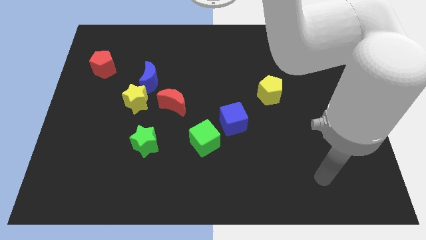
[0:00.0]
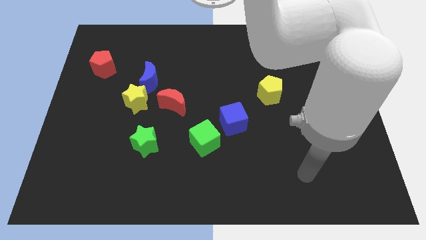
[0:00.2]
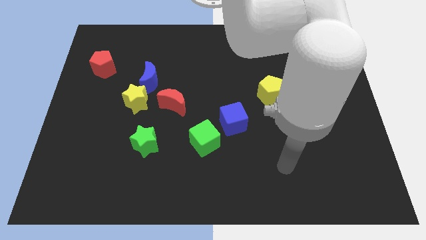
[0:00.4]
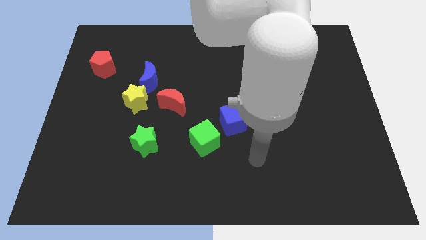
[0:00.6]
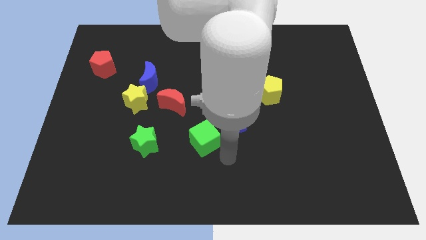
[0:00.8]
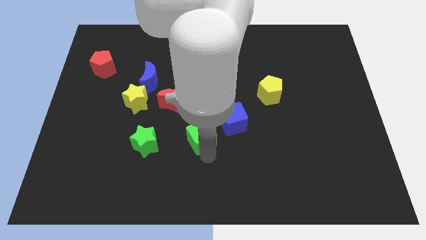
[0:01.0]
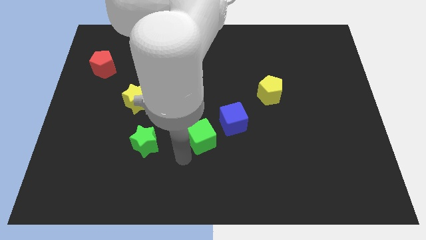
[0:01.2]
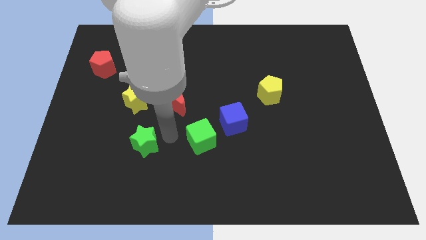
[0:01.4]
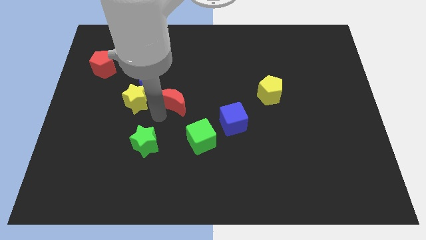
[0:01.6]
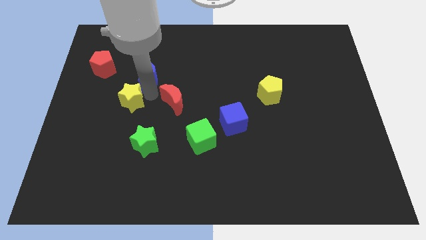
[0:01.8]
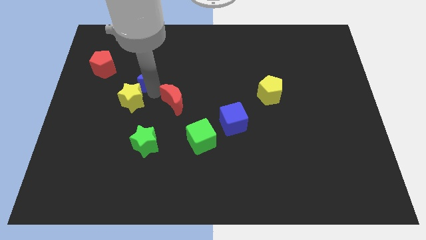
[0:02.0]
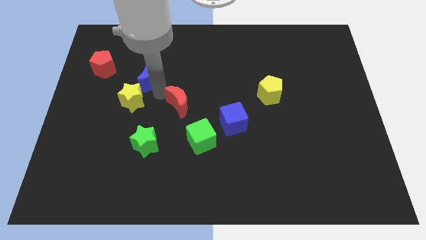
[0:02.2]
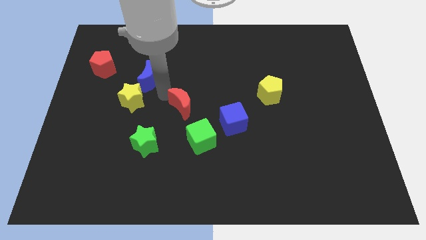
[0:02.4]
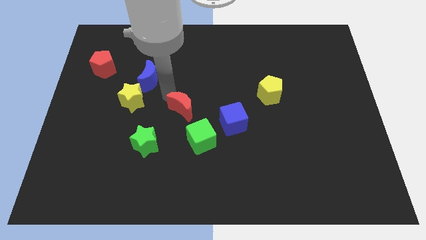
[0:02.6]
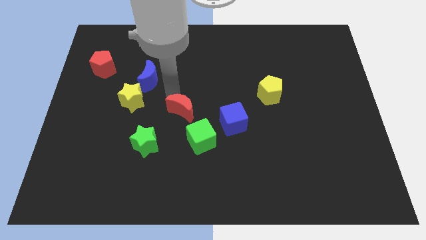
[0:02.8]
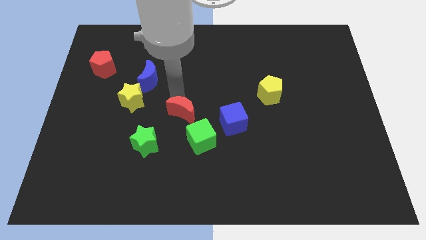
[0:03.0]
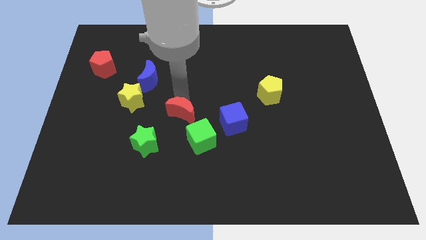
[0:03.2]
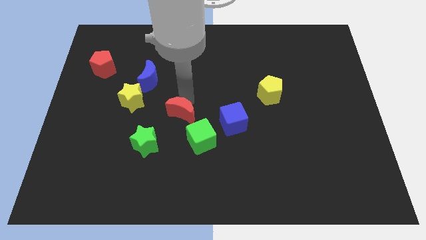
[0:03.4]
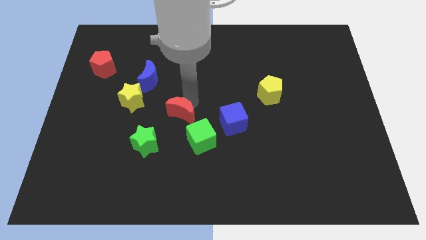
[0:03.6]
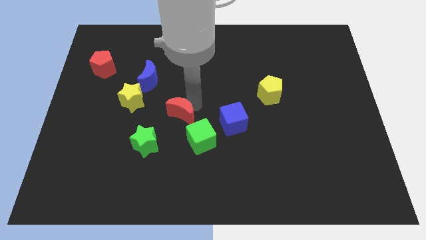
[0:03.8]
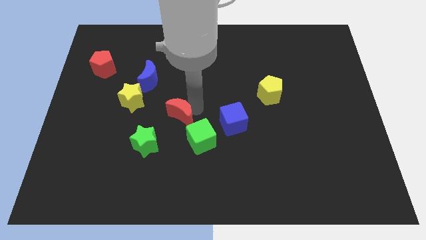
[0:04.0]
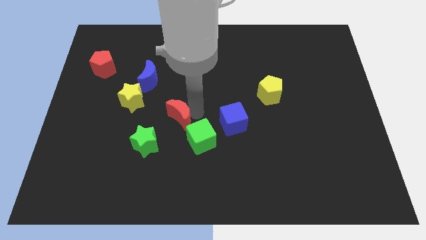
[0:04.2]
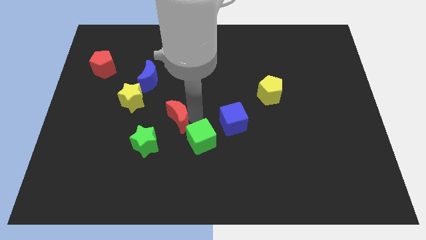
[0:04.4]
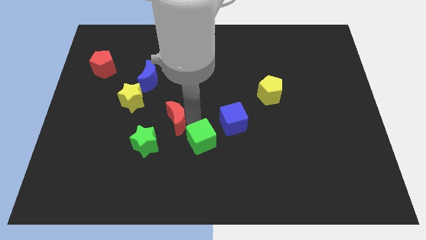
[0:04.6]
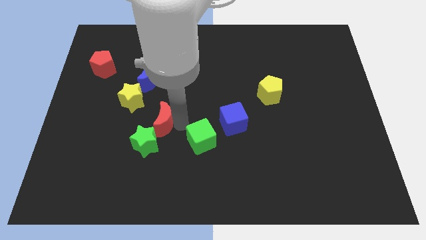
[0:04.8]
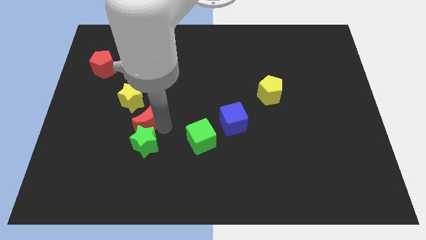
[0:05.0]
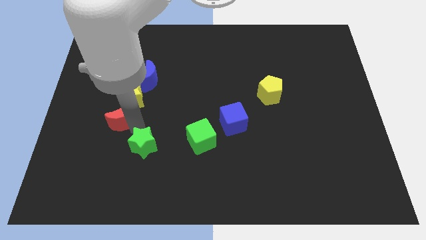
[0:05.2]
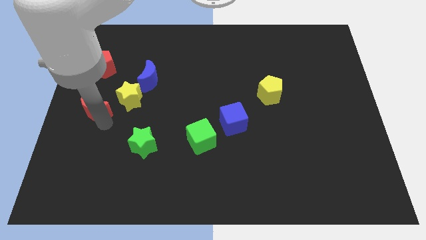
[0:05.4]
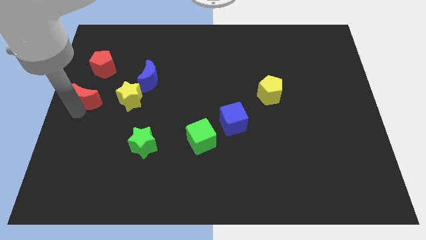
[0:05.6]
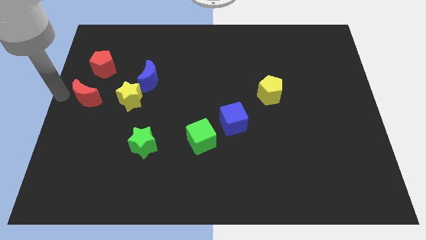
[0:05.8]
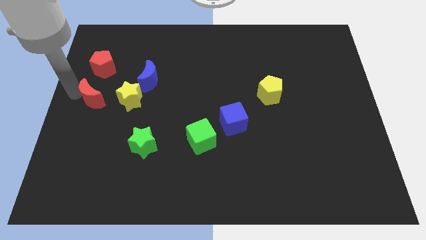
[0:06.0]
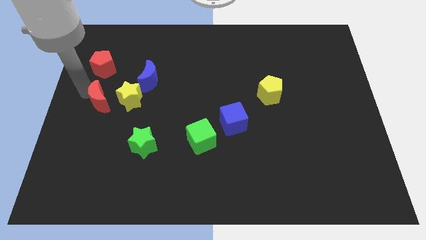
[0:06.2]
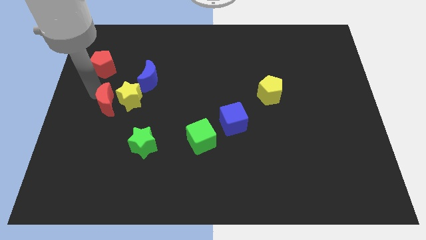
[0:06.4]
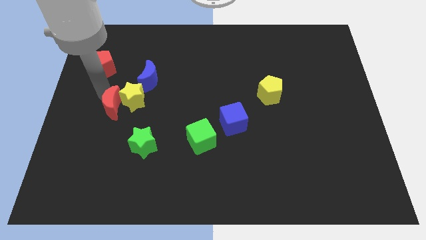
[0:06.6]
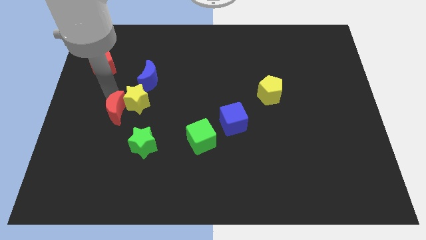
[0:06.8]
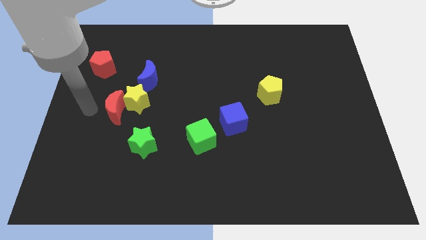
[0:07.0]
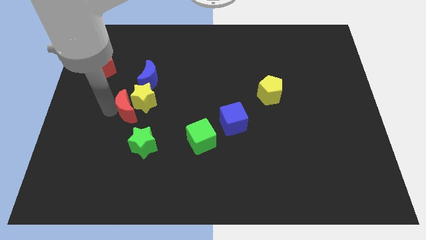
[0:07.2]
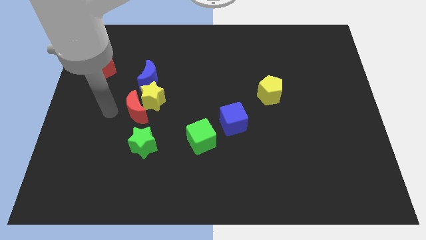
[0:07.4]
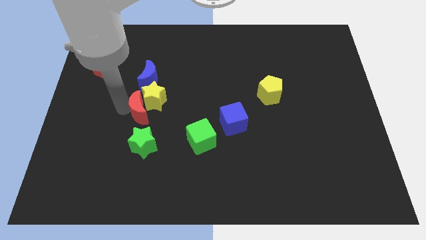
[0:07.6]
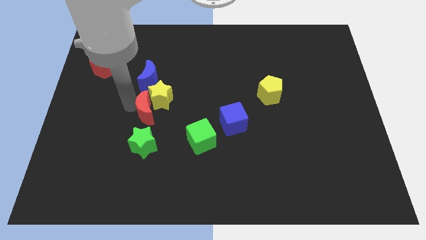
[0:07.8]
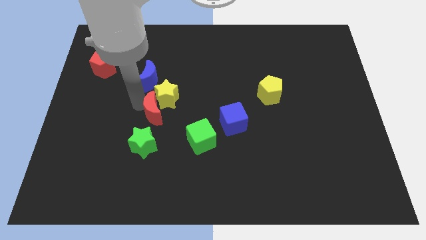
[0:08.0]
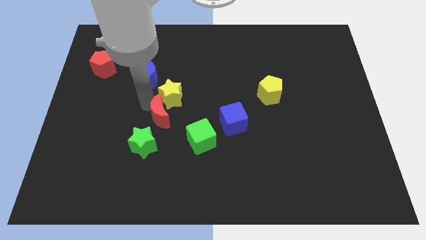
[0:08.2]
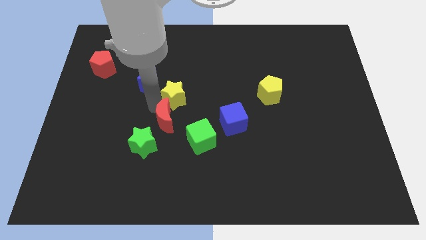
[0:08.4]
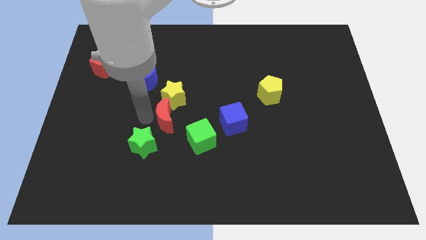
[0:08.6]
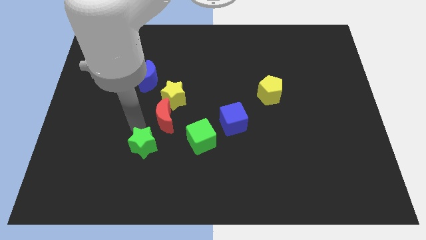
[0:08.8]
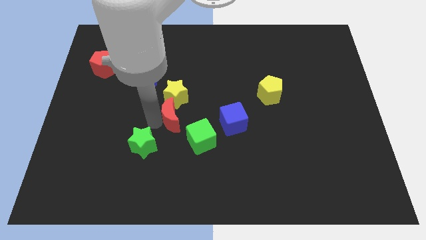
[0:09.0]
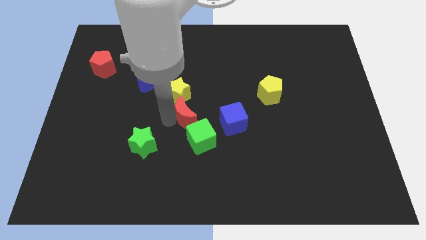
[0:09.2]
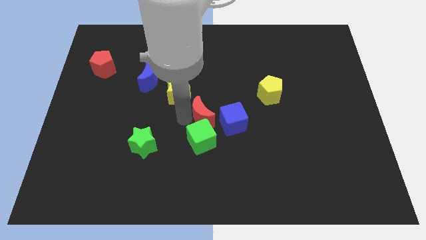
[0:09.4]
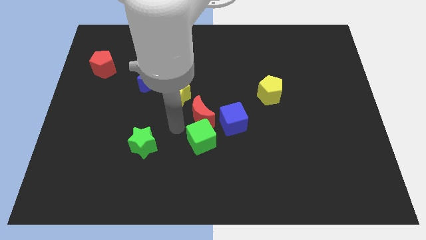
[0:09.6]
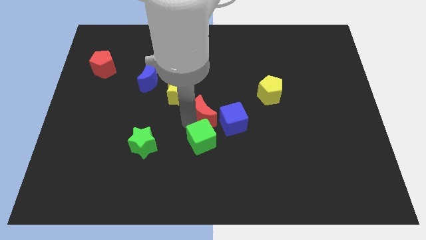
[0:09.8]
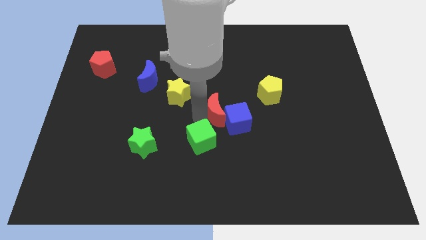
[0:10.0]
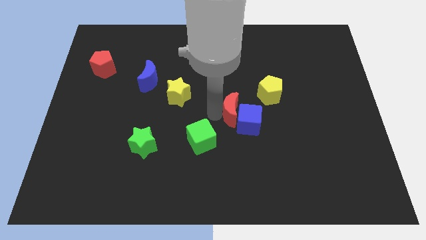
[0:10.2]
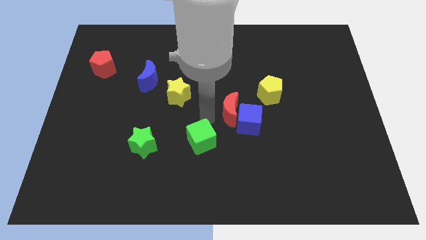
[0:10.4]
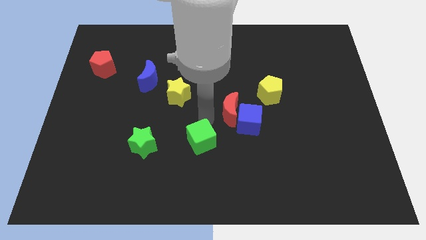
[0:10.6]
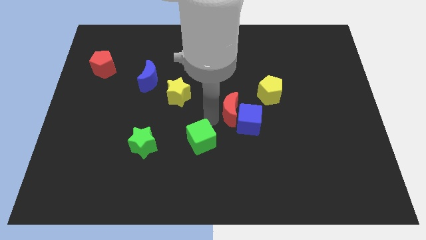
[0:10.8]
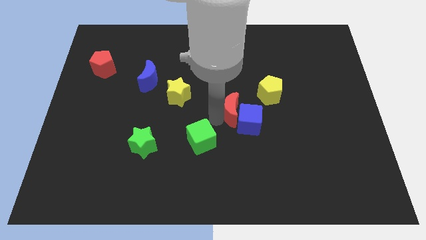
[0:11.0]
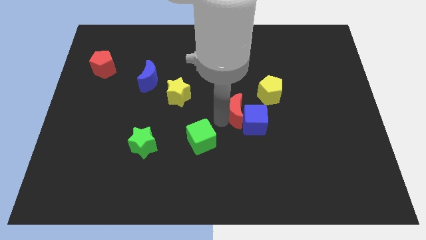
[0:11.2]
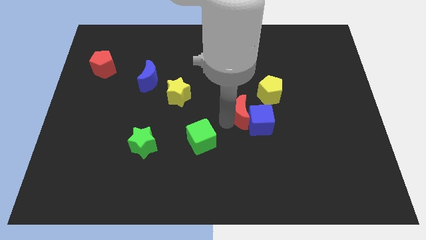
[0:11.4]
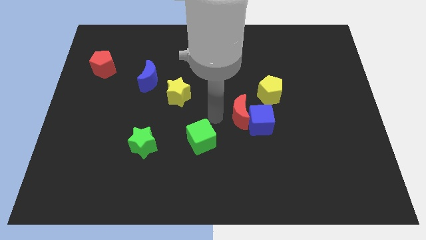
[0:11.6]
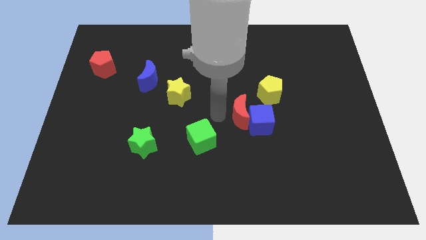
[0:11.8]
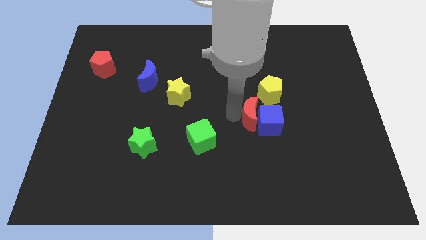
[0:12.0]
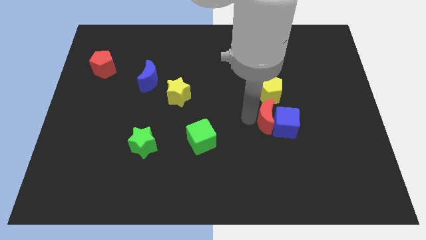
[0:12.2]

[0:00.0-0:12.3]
push the red moon right

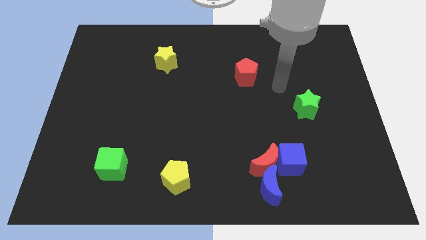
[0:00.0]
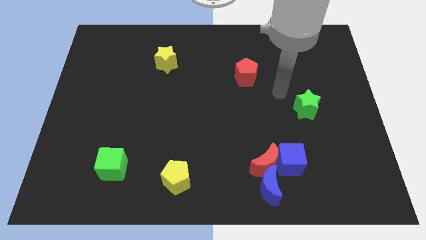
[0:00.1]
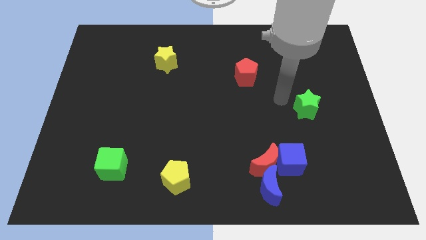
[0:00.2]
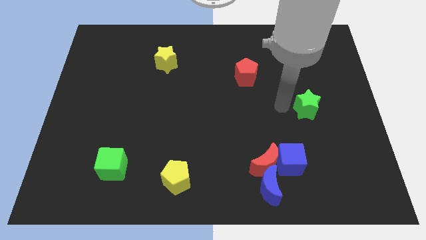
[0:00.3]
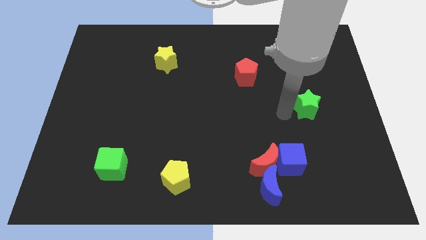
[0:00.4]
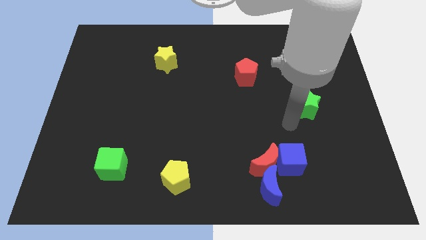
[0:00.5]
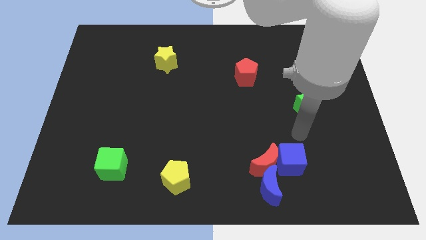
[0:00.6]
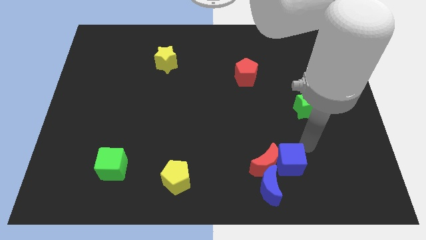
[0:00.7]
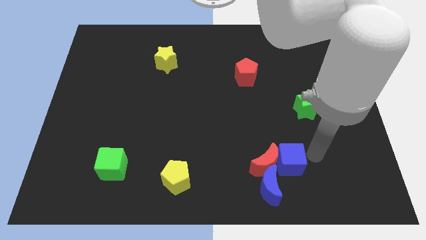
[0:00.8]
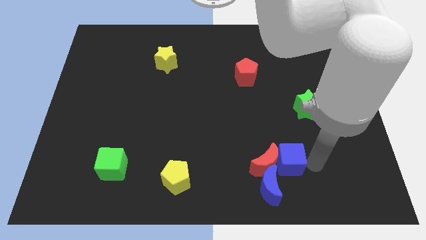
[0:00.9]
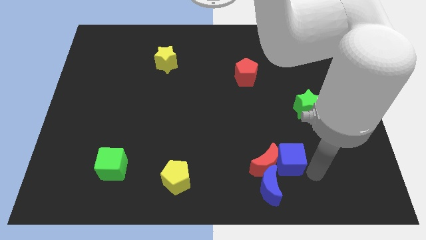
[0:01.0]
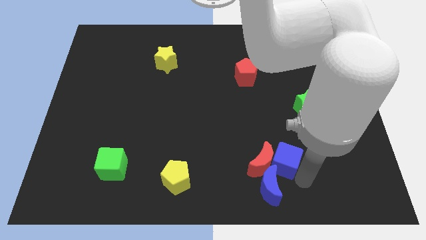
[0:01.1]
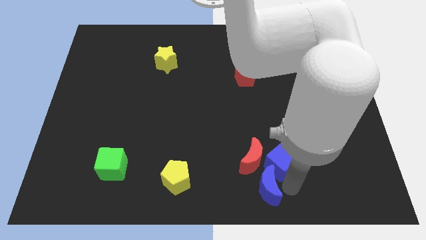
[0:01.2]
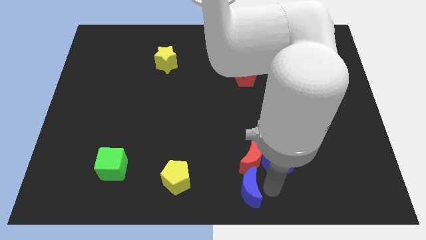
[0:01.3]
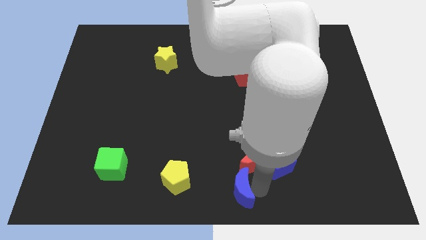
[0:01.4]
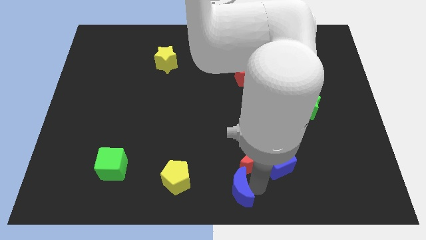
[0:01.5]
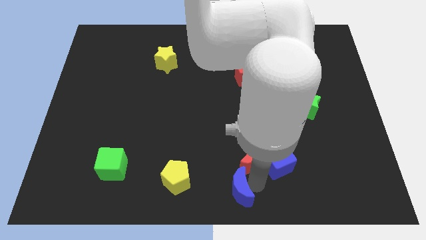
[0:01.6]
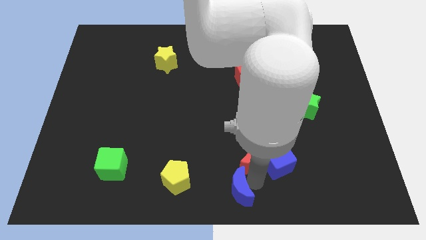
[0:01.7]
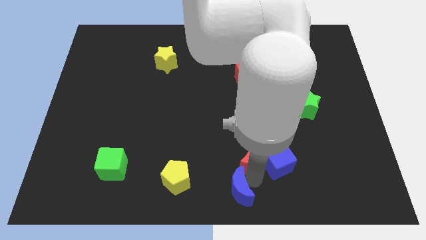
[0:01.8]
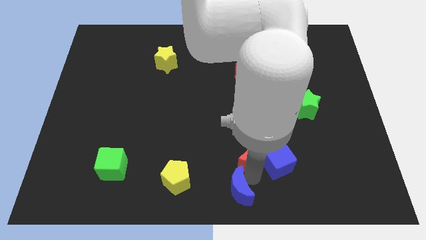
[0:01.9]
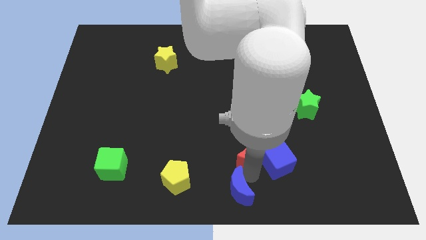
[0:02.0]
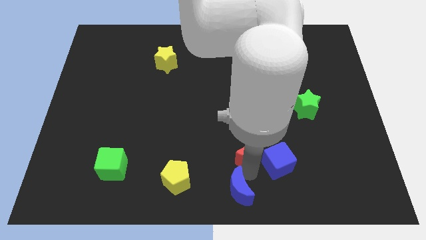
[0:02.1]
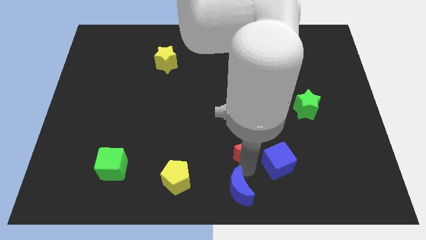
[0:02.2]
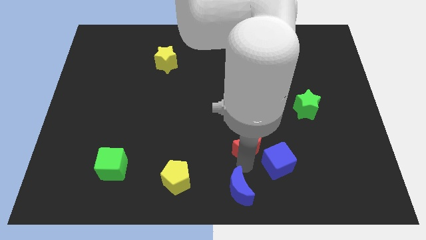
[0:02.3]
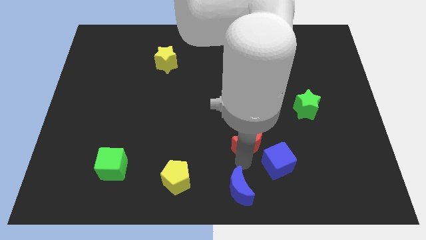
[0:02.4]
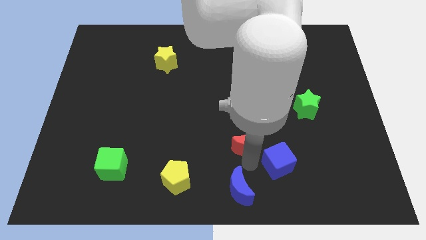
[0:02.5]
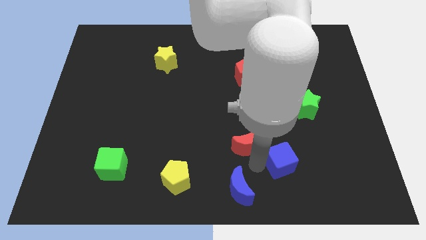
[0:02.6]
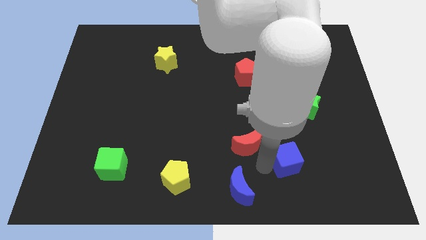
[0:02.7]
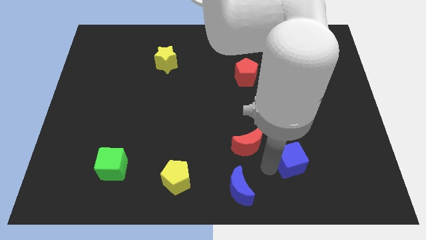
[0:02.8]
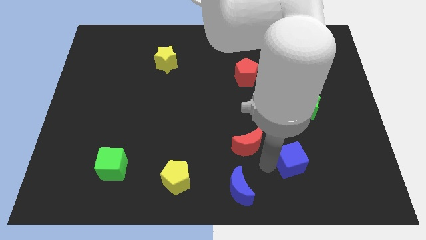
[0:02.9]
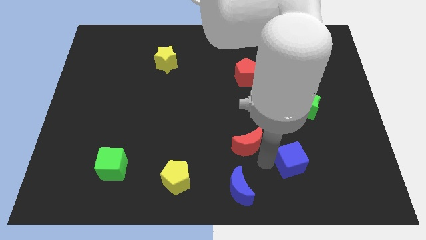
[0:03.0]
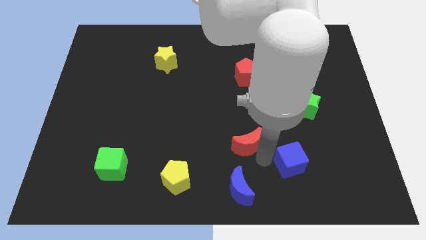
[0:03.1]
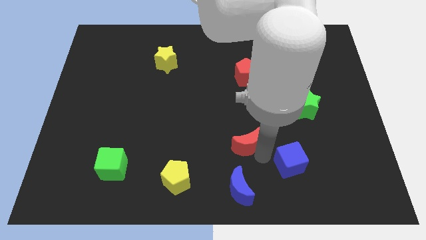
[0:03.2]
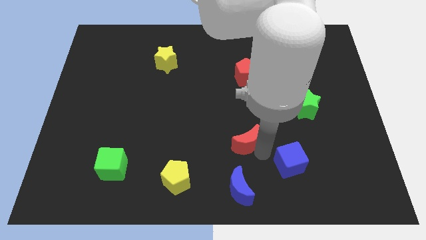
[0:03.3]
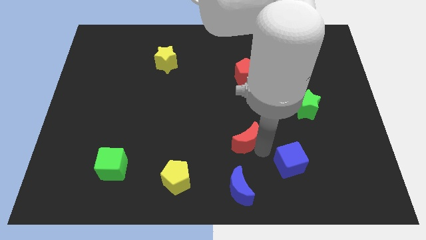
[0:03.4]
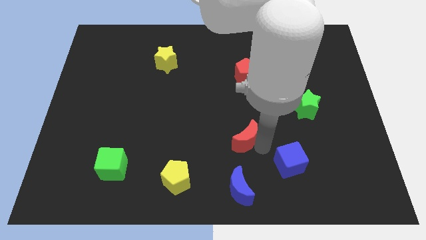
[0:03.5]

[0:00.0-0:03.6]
slide the red moon upwards and to the left slightly
